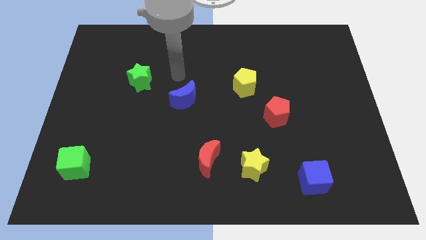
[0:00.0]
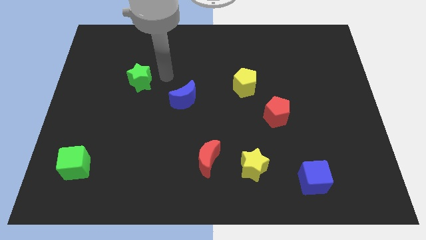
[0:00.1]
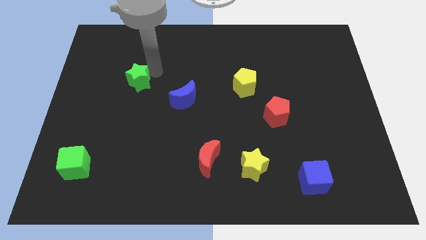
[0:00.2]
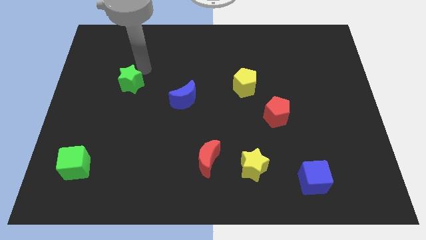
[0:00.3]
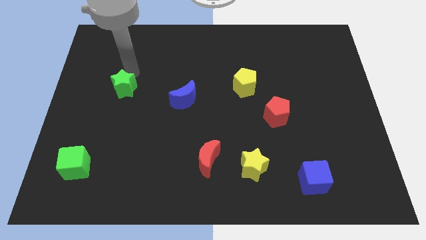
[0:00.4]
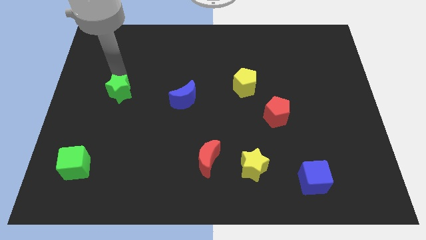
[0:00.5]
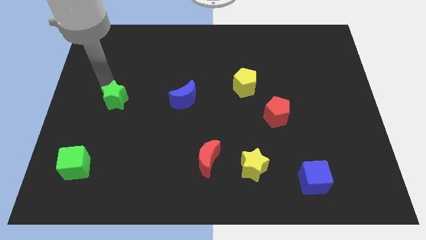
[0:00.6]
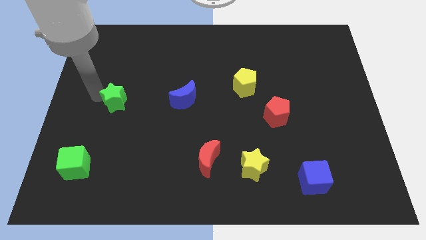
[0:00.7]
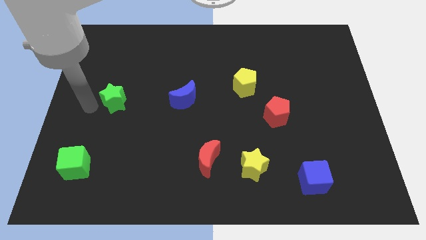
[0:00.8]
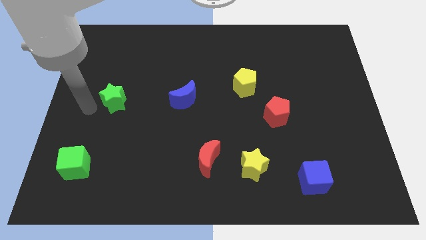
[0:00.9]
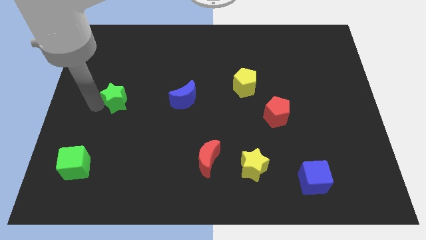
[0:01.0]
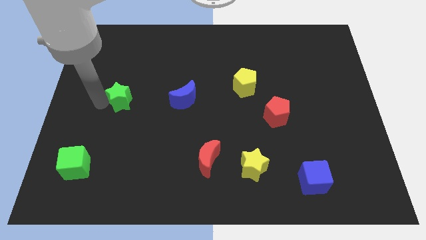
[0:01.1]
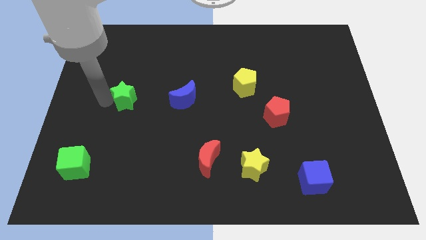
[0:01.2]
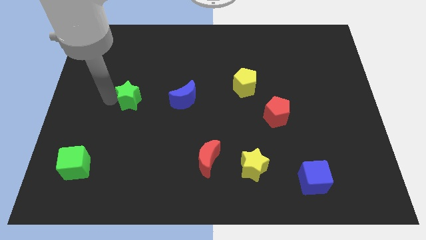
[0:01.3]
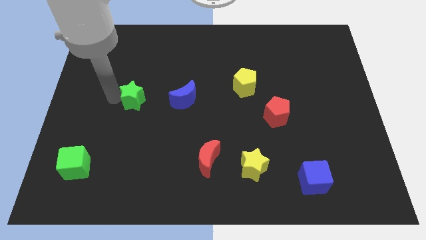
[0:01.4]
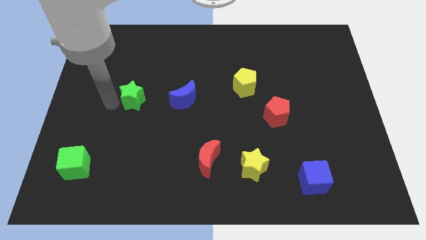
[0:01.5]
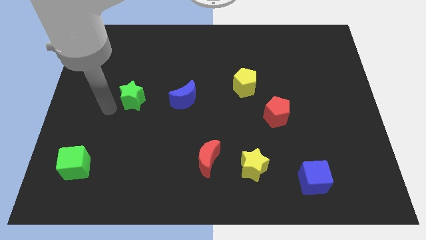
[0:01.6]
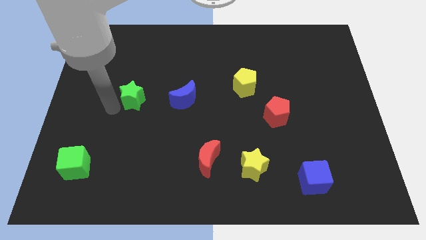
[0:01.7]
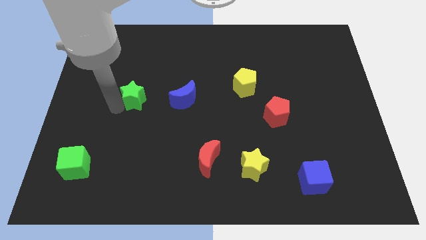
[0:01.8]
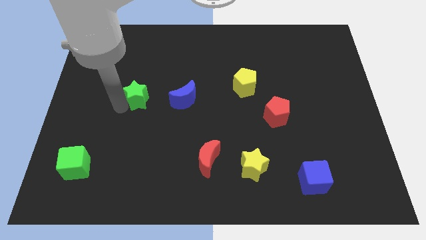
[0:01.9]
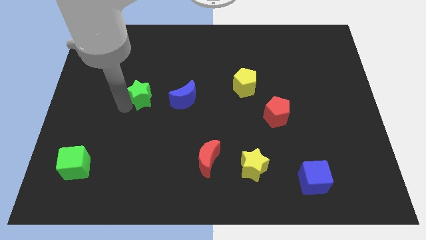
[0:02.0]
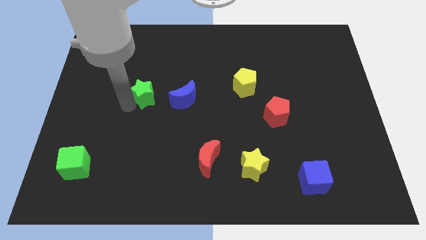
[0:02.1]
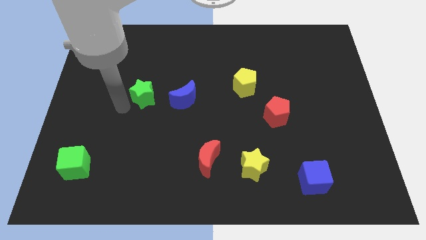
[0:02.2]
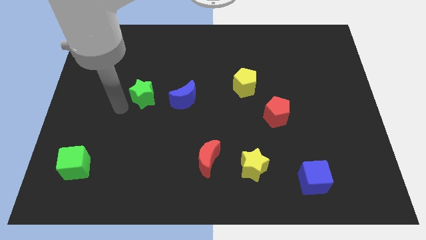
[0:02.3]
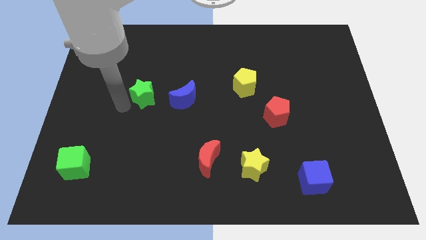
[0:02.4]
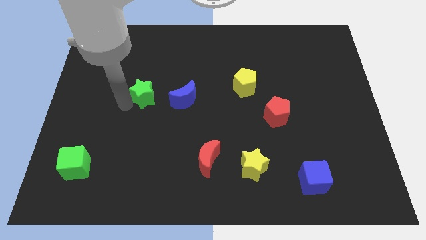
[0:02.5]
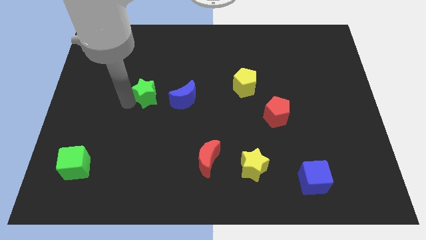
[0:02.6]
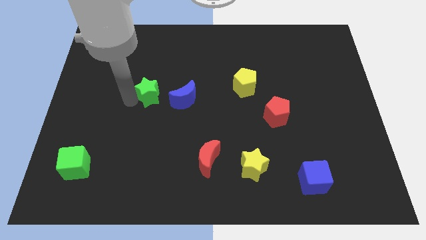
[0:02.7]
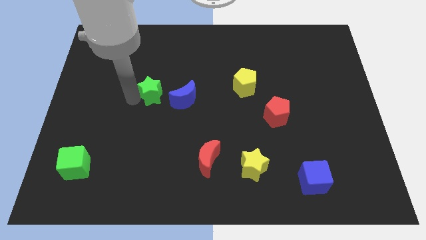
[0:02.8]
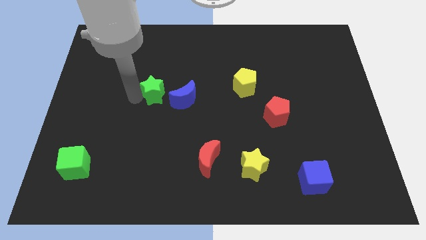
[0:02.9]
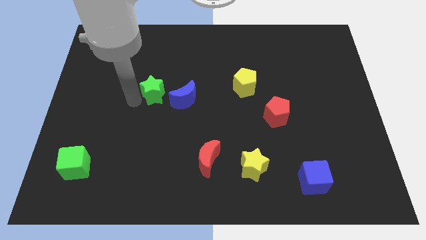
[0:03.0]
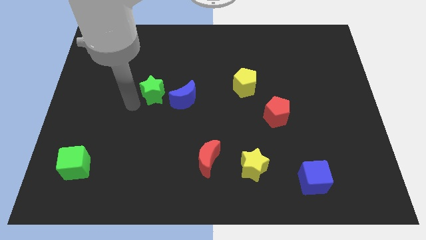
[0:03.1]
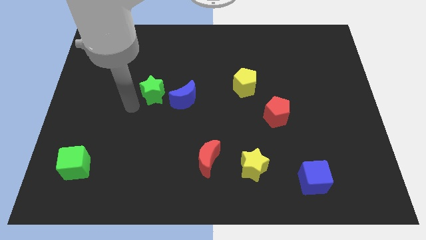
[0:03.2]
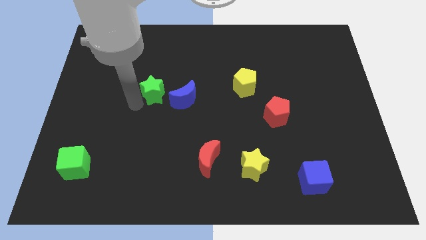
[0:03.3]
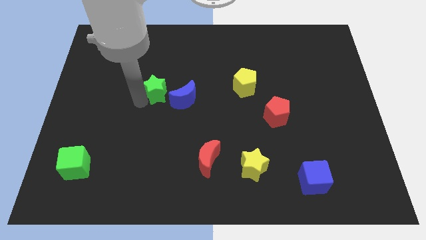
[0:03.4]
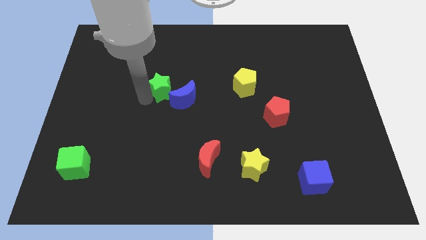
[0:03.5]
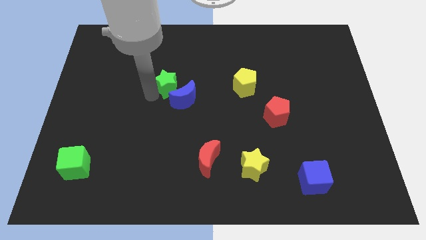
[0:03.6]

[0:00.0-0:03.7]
slightly push the green star right

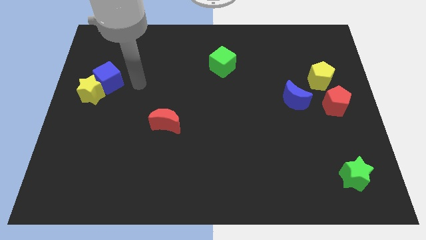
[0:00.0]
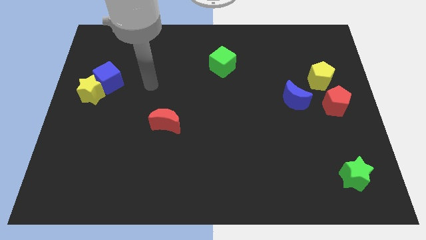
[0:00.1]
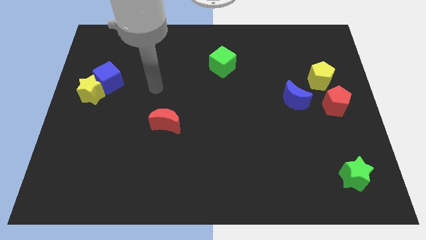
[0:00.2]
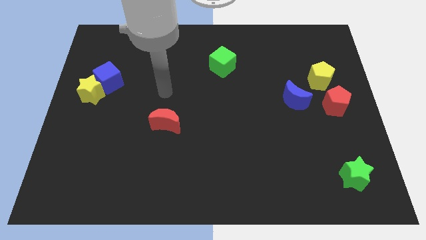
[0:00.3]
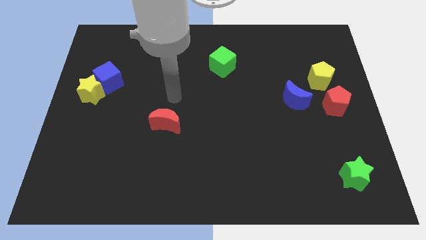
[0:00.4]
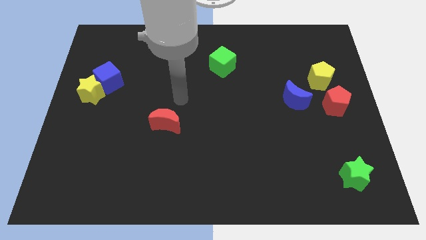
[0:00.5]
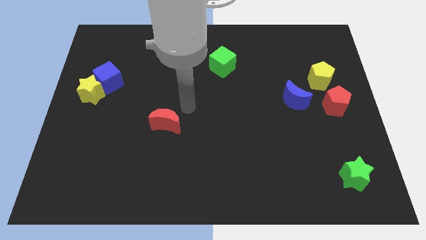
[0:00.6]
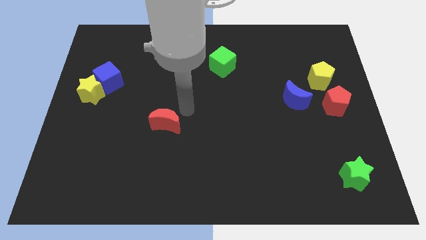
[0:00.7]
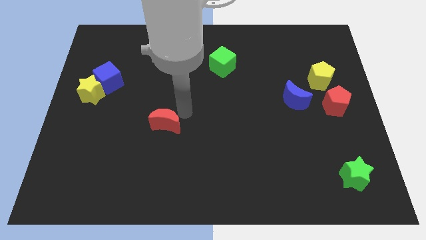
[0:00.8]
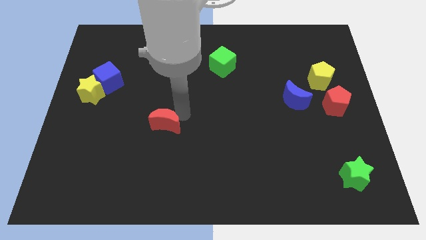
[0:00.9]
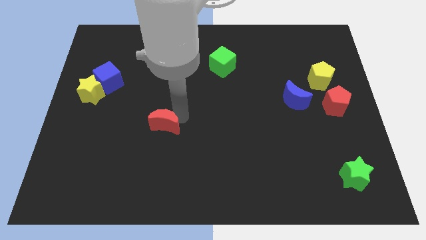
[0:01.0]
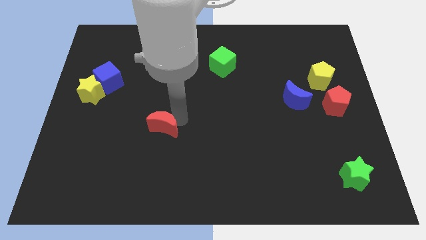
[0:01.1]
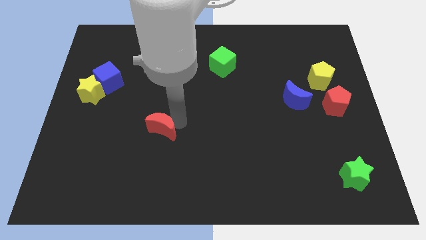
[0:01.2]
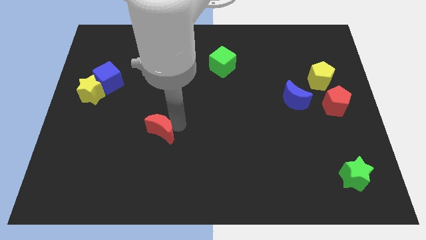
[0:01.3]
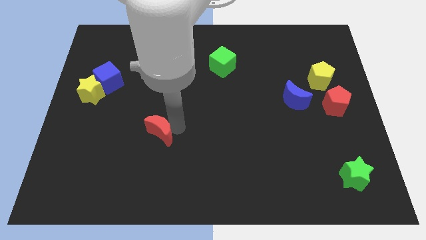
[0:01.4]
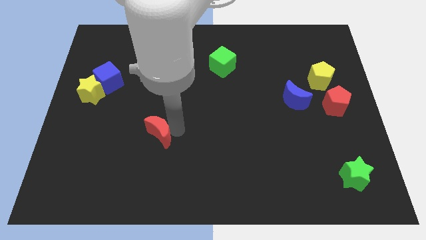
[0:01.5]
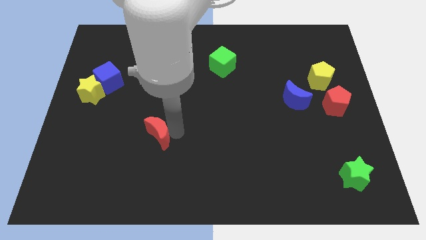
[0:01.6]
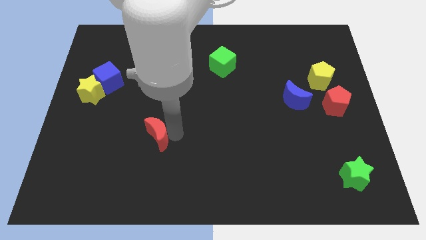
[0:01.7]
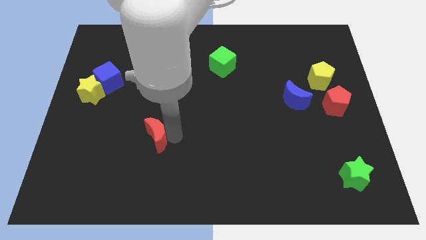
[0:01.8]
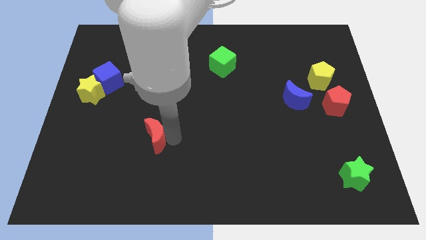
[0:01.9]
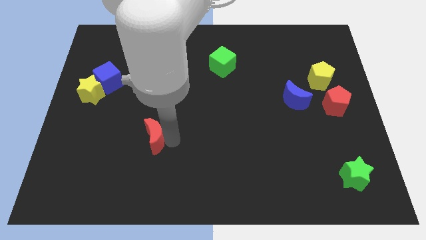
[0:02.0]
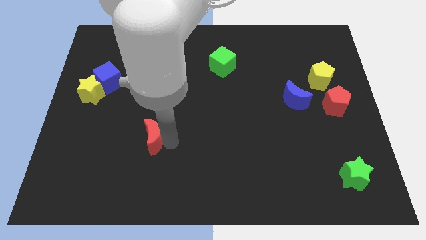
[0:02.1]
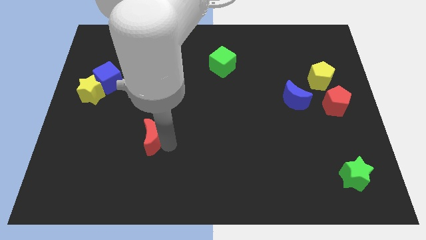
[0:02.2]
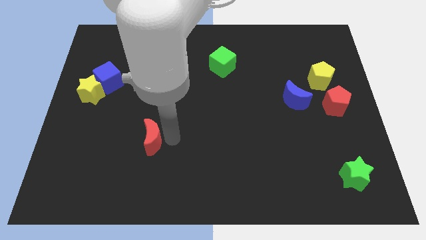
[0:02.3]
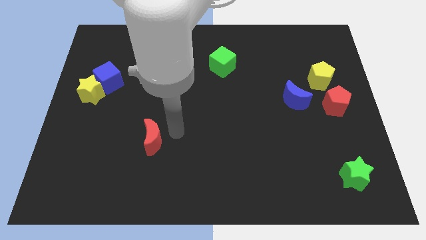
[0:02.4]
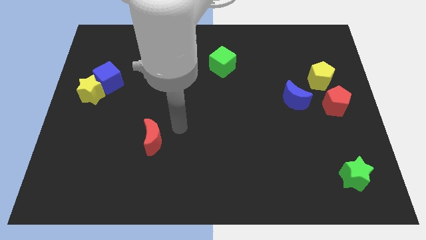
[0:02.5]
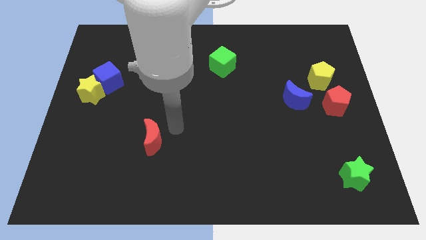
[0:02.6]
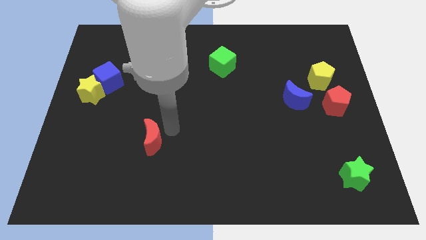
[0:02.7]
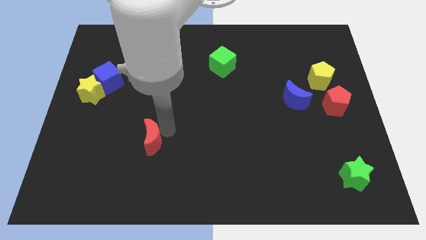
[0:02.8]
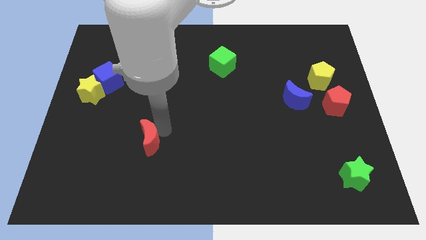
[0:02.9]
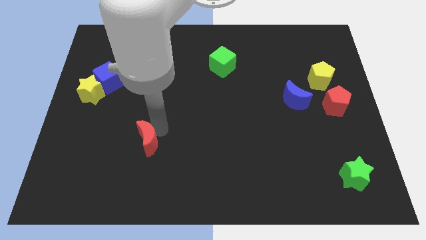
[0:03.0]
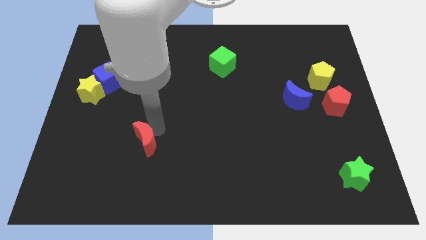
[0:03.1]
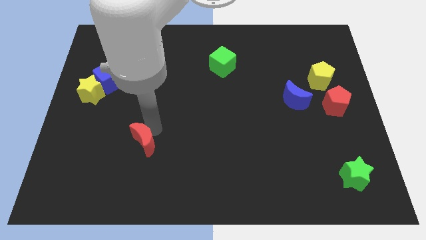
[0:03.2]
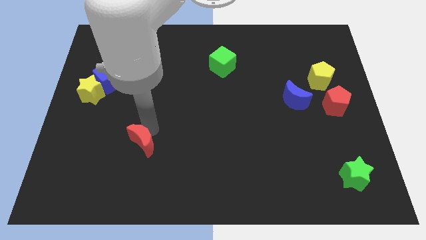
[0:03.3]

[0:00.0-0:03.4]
push the red moon a bit downwards and left

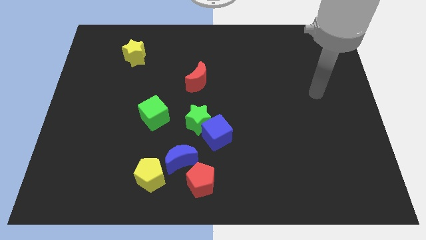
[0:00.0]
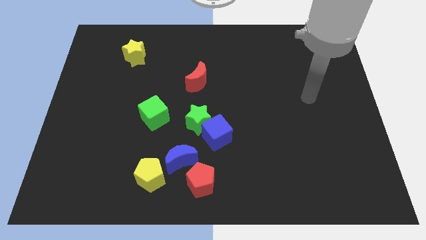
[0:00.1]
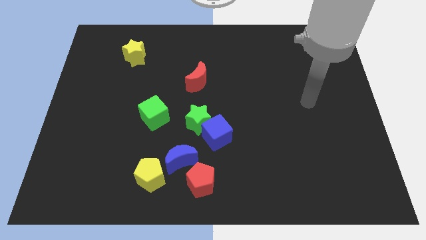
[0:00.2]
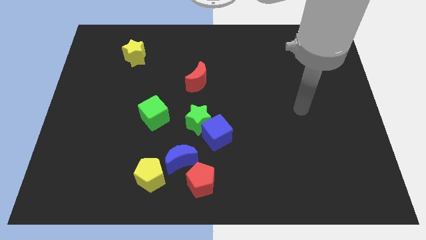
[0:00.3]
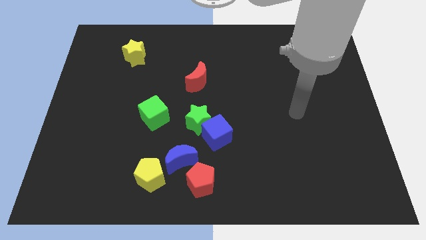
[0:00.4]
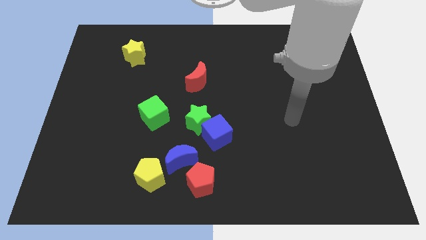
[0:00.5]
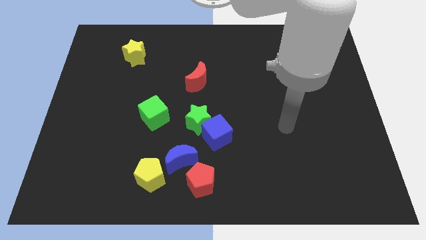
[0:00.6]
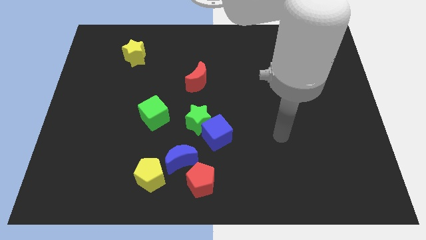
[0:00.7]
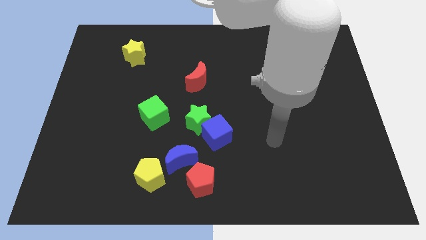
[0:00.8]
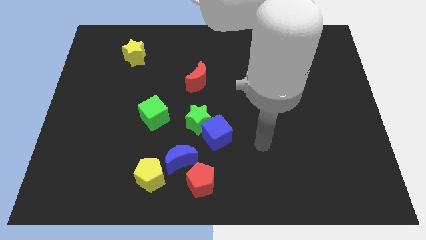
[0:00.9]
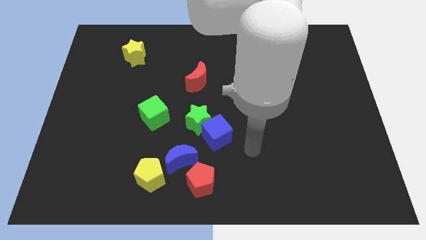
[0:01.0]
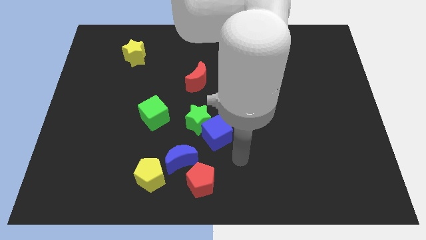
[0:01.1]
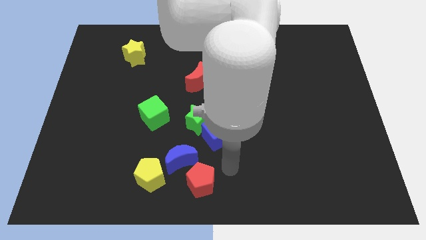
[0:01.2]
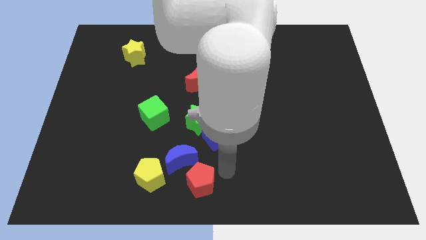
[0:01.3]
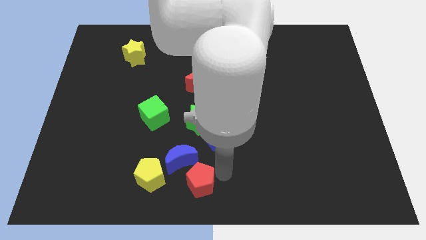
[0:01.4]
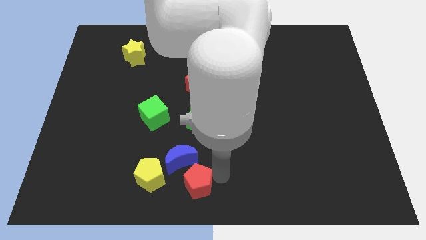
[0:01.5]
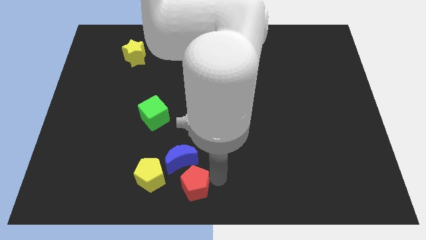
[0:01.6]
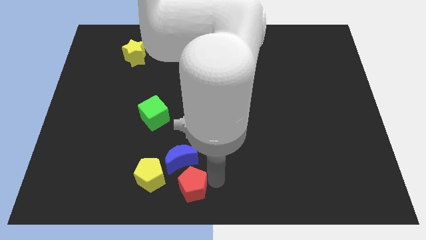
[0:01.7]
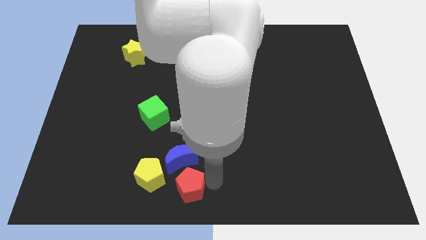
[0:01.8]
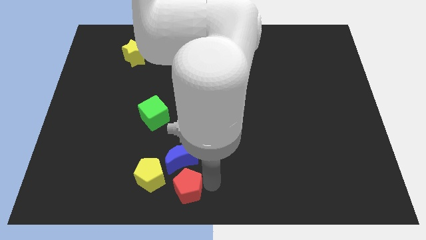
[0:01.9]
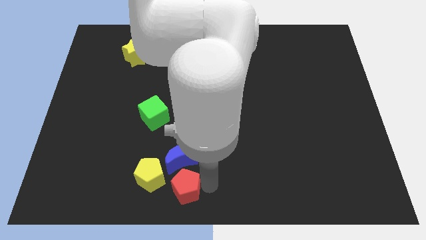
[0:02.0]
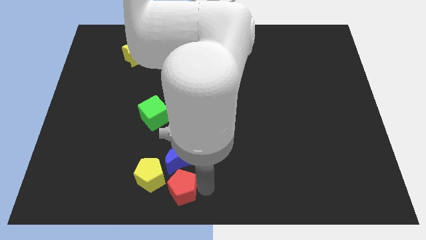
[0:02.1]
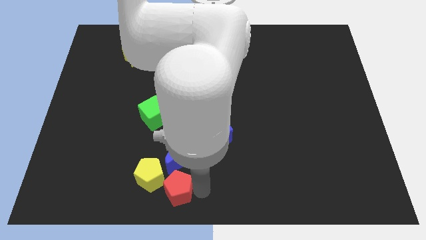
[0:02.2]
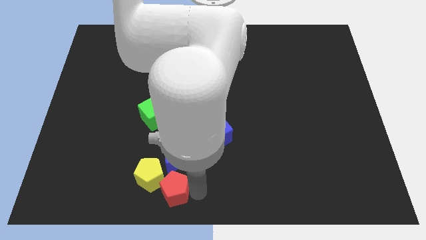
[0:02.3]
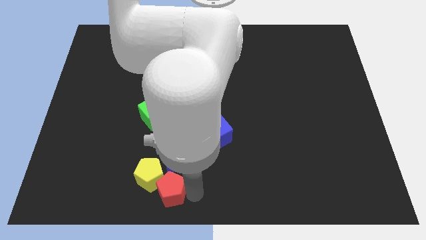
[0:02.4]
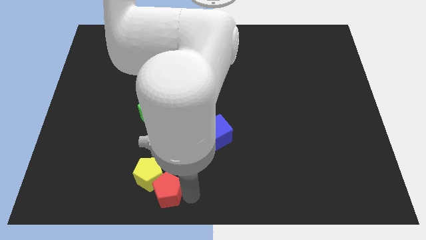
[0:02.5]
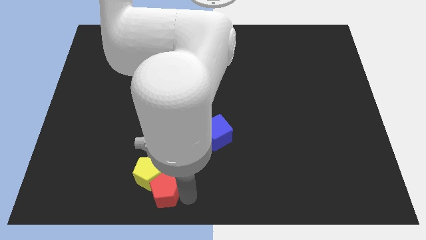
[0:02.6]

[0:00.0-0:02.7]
push the red pentagon a little left
